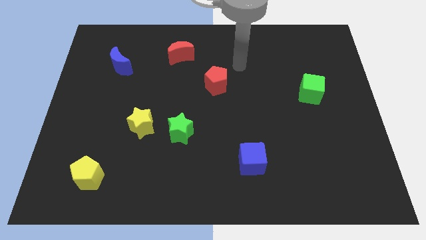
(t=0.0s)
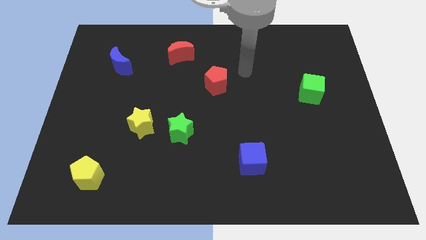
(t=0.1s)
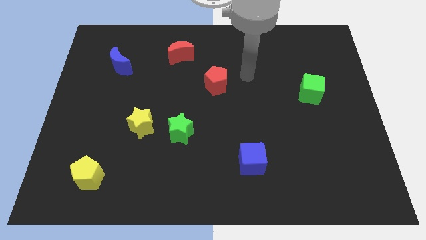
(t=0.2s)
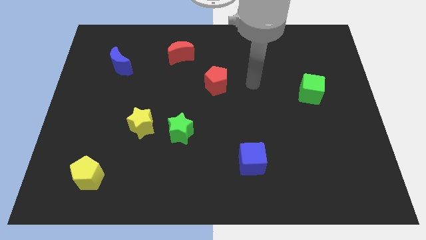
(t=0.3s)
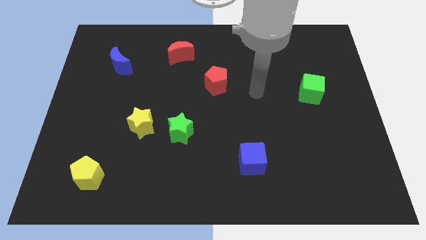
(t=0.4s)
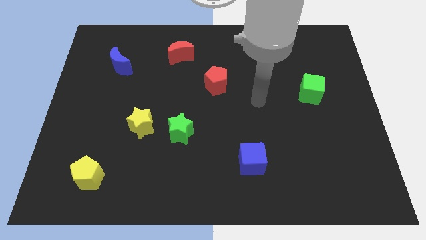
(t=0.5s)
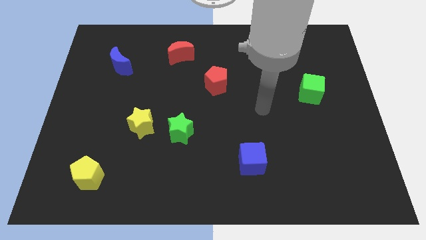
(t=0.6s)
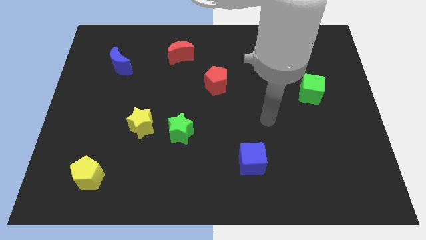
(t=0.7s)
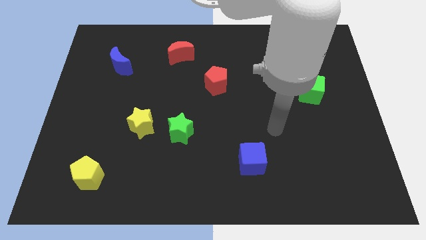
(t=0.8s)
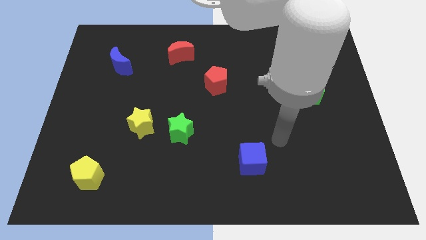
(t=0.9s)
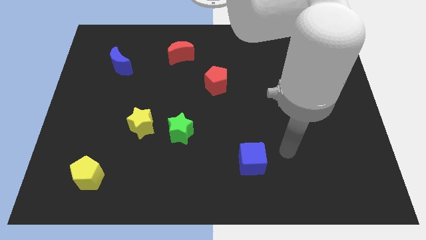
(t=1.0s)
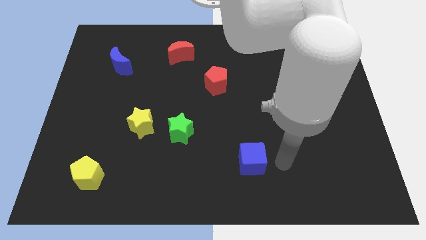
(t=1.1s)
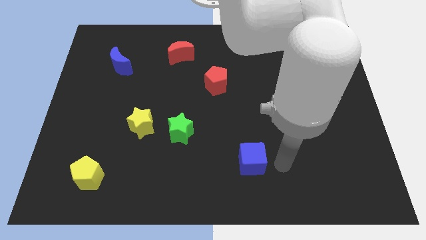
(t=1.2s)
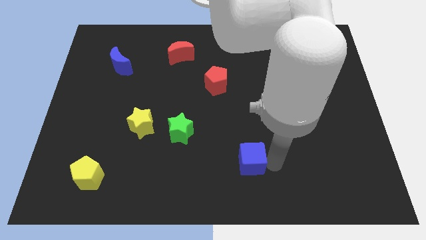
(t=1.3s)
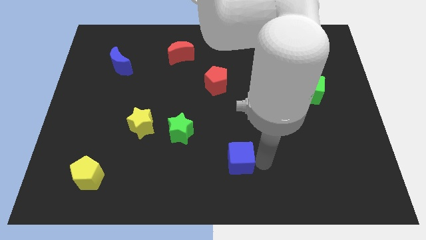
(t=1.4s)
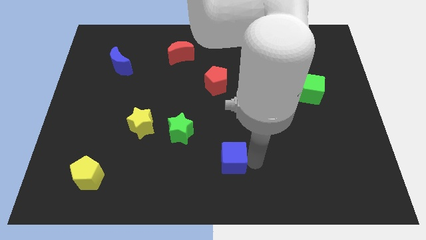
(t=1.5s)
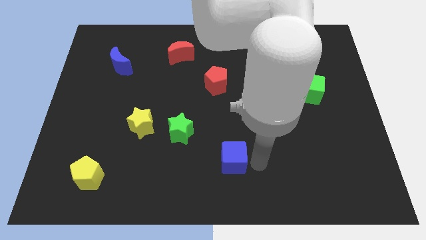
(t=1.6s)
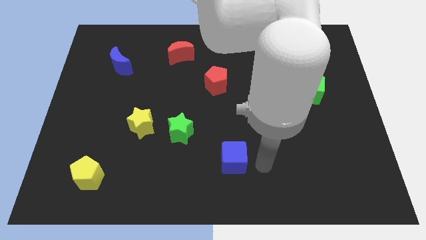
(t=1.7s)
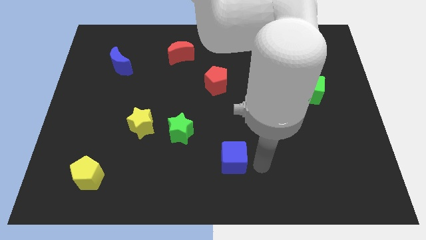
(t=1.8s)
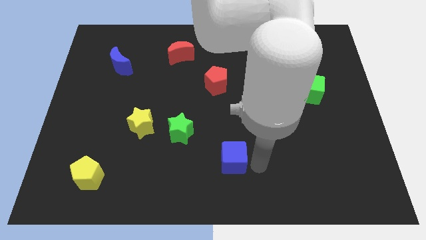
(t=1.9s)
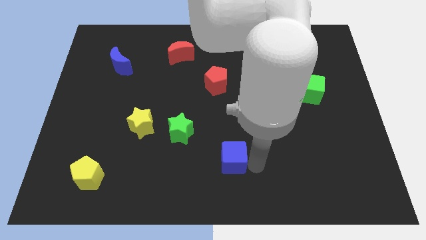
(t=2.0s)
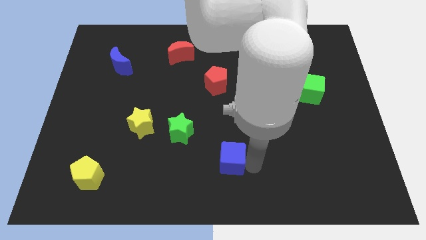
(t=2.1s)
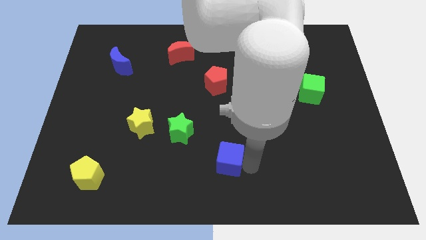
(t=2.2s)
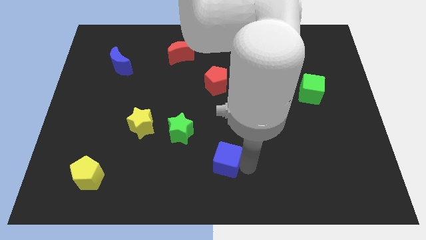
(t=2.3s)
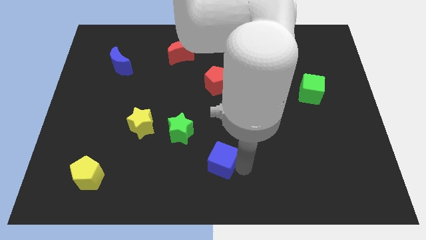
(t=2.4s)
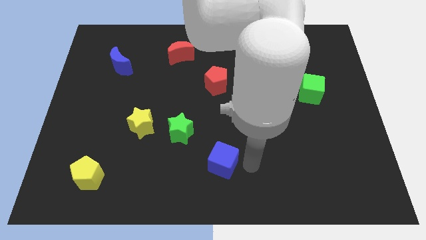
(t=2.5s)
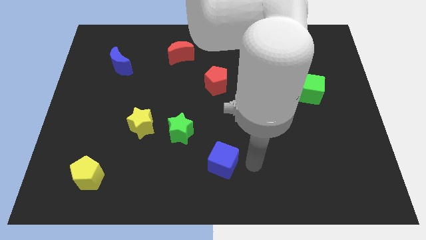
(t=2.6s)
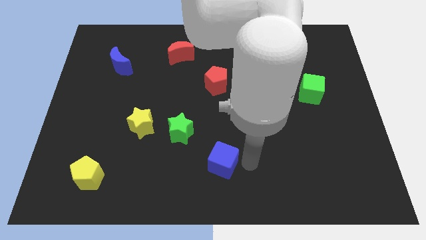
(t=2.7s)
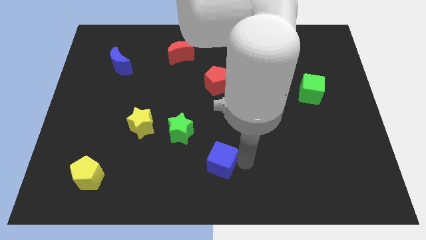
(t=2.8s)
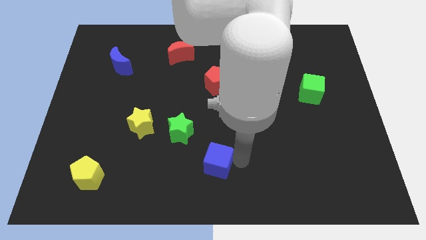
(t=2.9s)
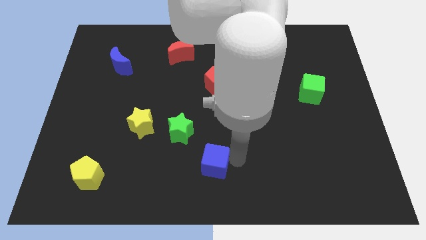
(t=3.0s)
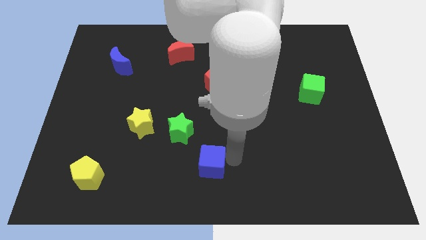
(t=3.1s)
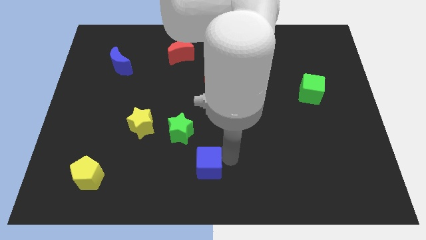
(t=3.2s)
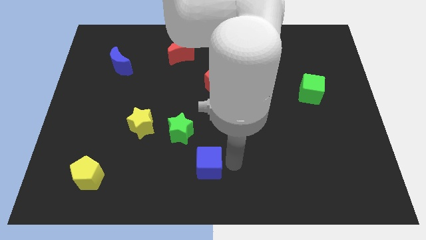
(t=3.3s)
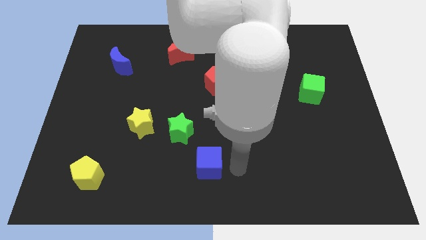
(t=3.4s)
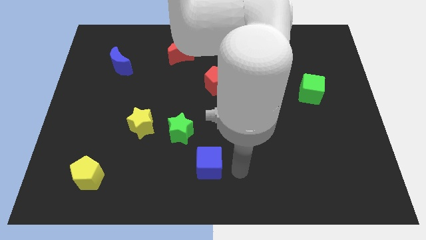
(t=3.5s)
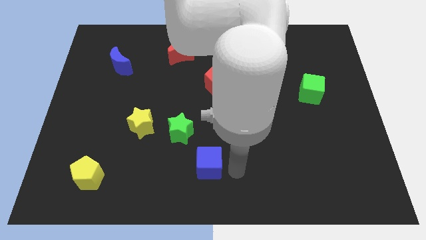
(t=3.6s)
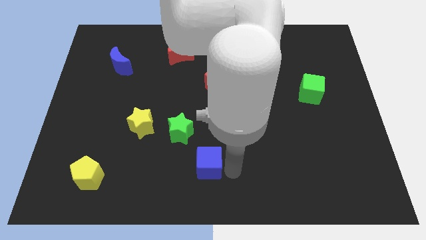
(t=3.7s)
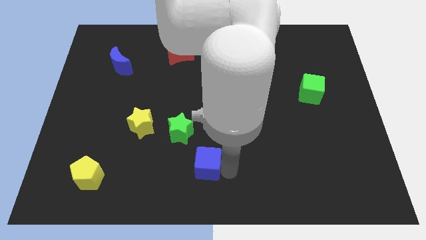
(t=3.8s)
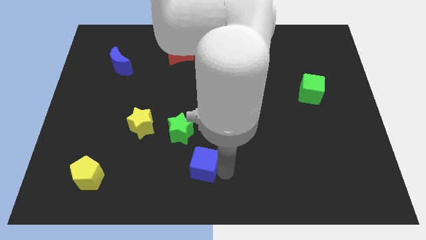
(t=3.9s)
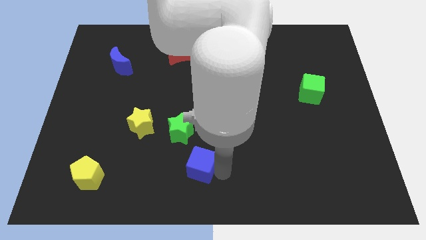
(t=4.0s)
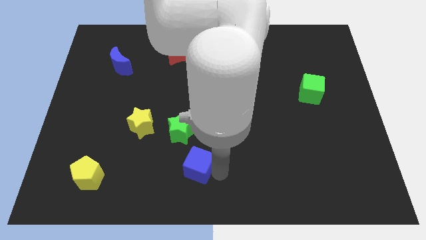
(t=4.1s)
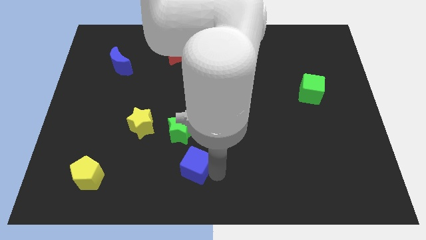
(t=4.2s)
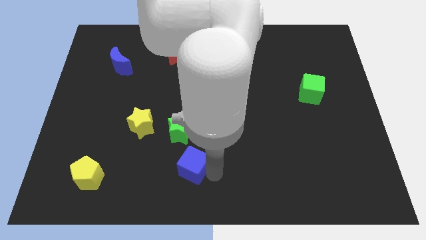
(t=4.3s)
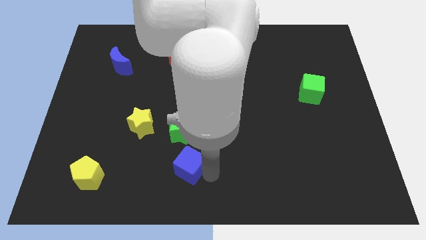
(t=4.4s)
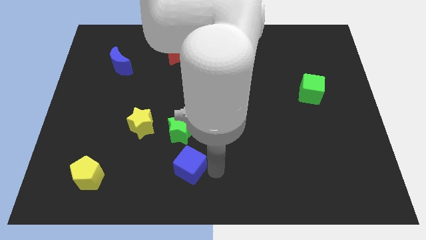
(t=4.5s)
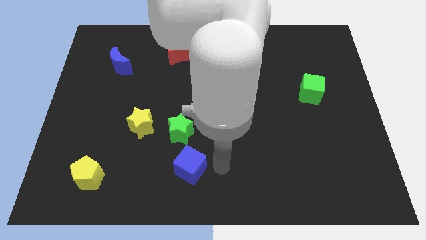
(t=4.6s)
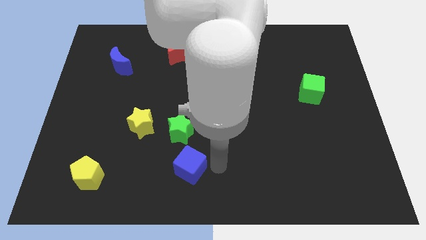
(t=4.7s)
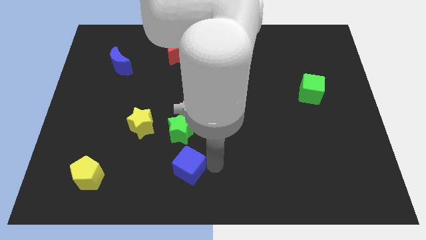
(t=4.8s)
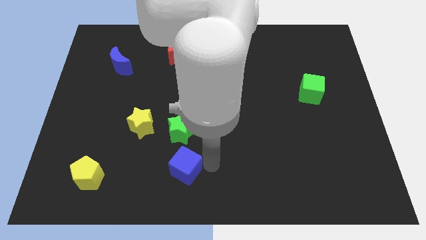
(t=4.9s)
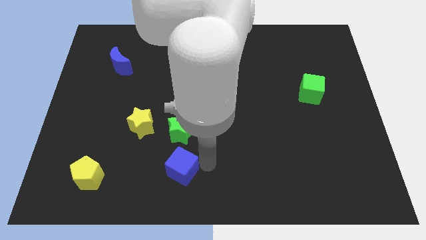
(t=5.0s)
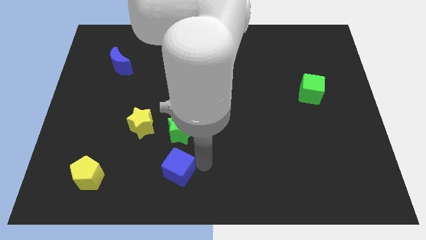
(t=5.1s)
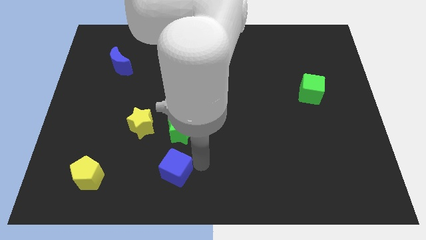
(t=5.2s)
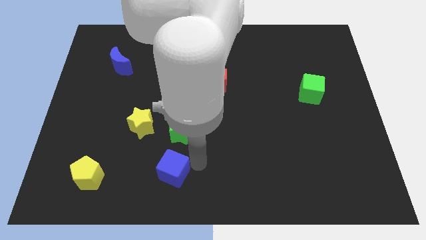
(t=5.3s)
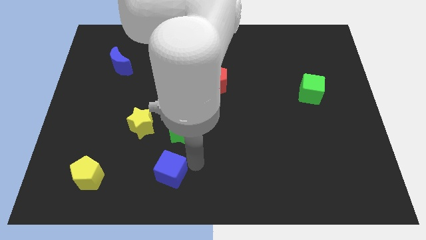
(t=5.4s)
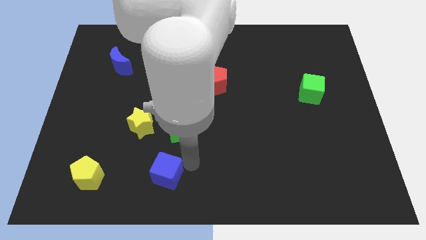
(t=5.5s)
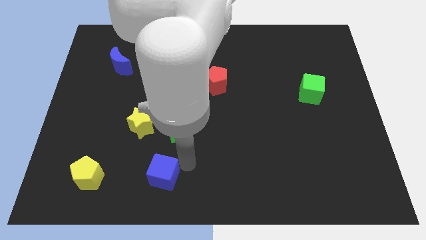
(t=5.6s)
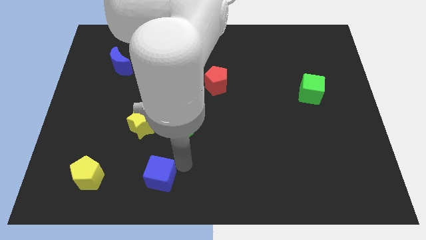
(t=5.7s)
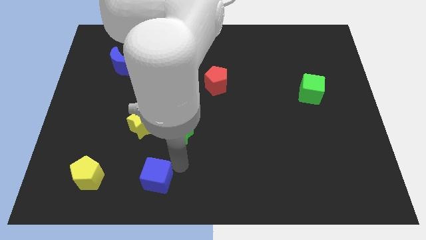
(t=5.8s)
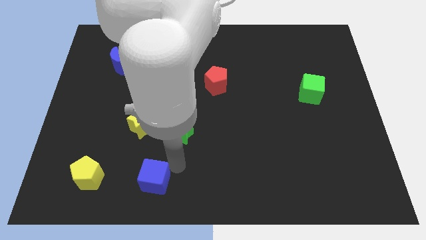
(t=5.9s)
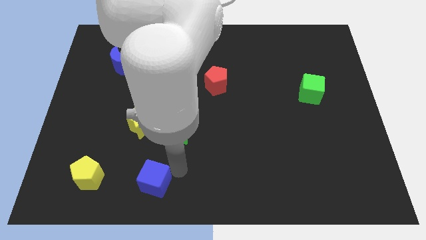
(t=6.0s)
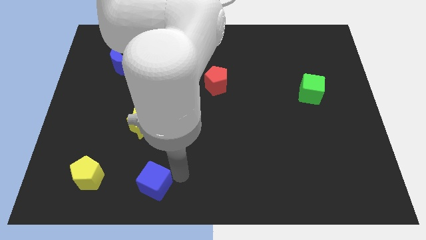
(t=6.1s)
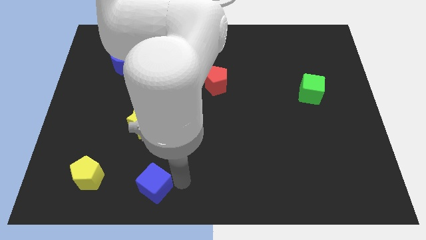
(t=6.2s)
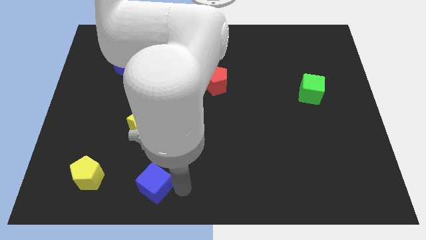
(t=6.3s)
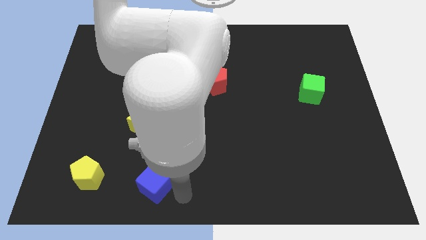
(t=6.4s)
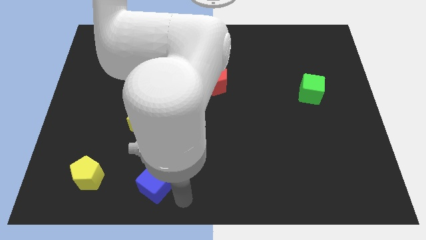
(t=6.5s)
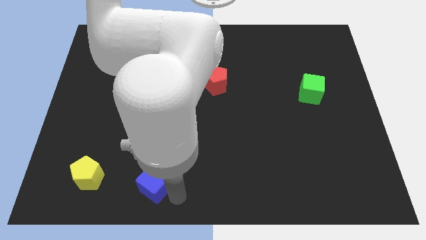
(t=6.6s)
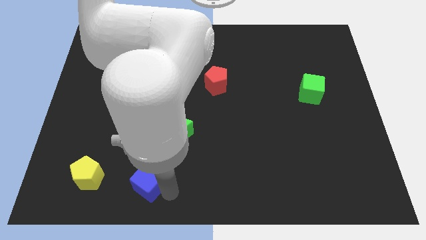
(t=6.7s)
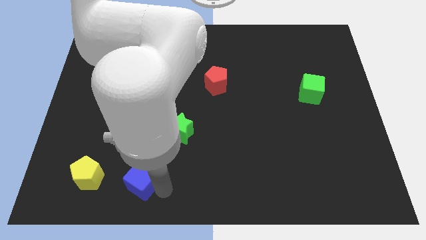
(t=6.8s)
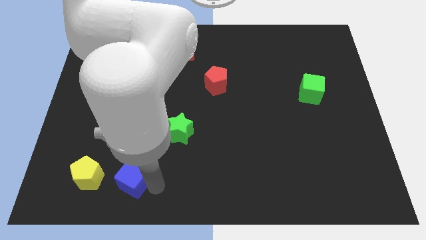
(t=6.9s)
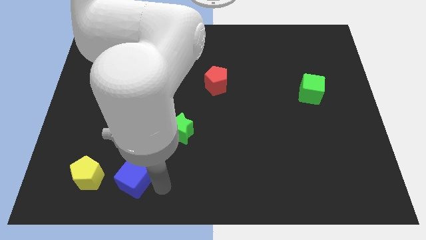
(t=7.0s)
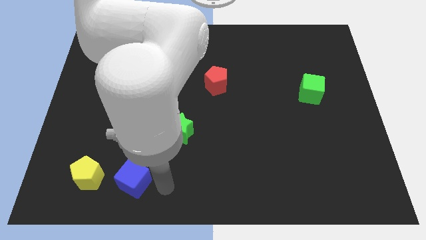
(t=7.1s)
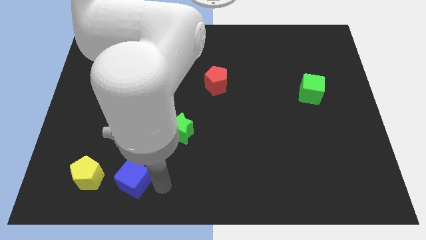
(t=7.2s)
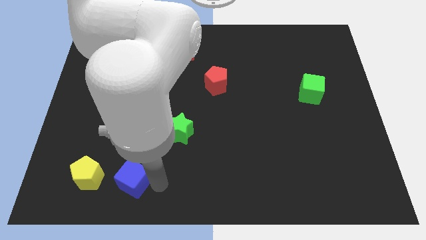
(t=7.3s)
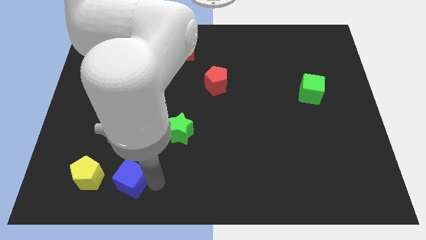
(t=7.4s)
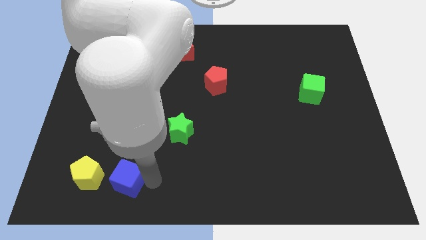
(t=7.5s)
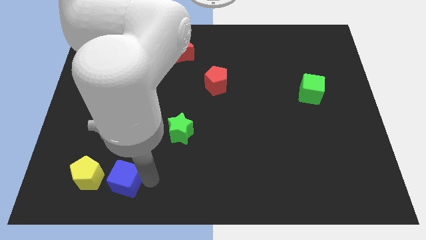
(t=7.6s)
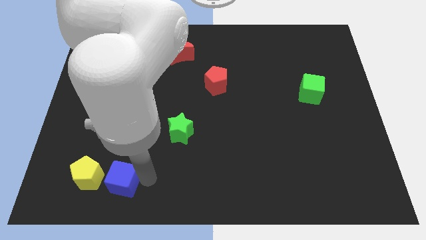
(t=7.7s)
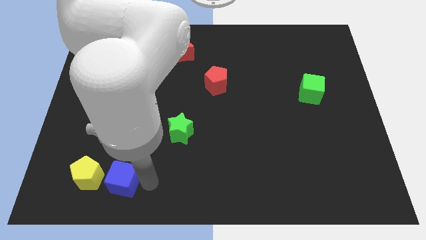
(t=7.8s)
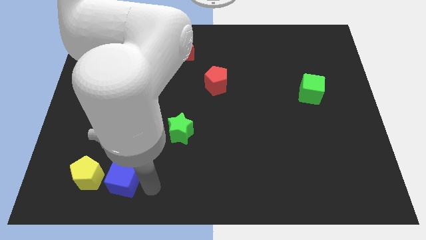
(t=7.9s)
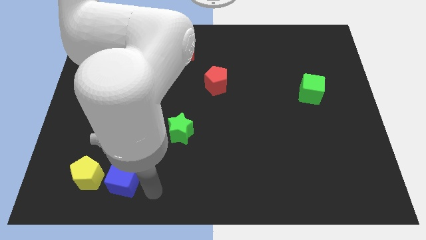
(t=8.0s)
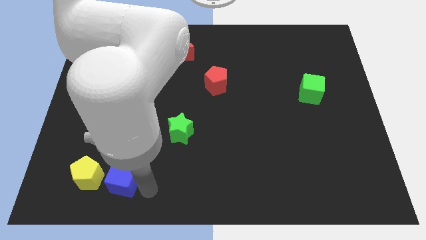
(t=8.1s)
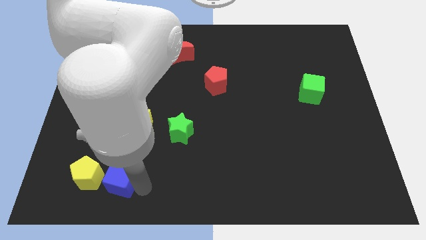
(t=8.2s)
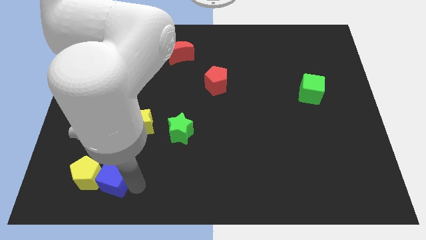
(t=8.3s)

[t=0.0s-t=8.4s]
move the blue cube to the yellow pentagon

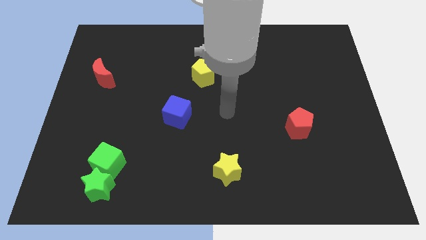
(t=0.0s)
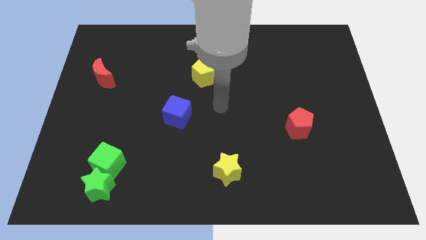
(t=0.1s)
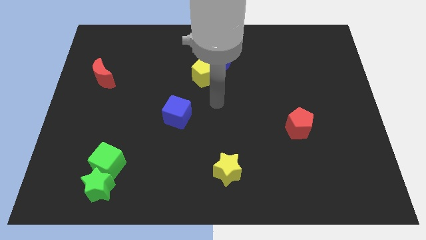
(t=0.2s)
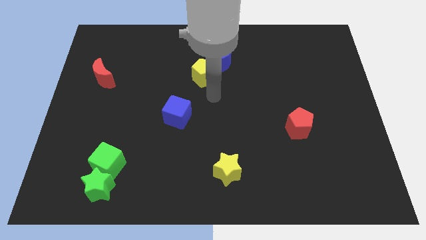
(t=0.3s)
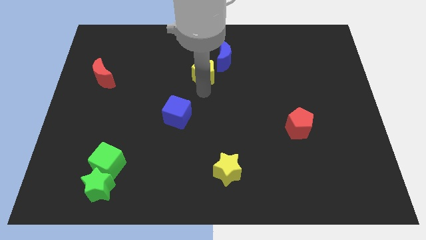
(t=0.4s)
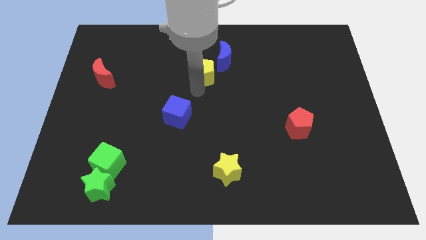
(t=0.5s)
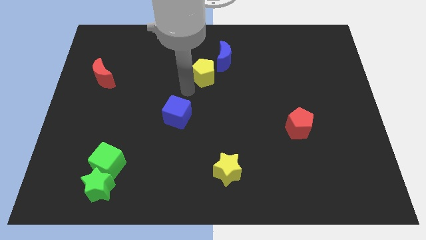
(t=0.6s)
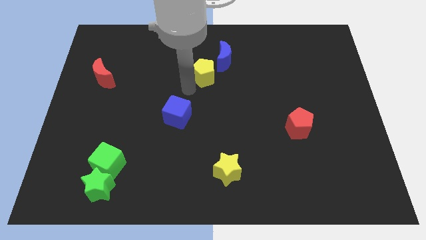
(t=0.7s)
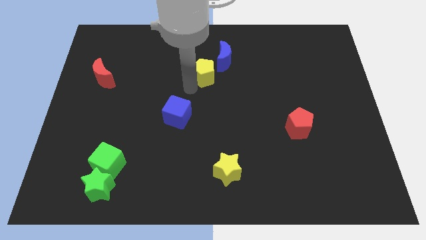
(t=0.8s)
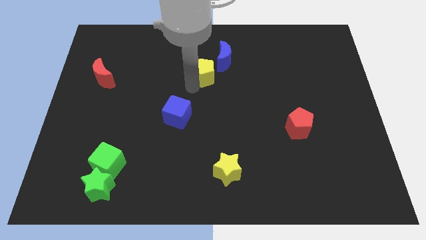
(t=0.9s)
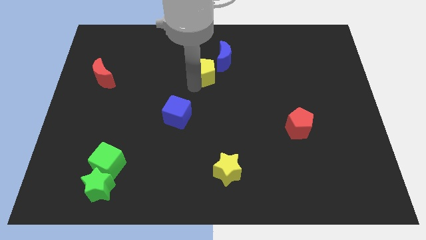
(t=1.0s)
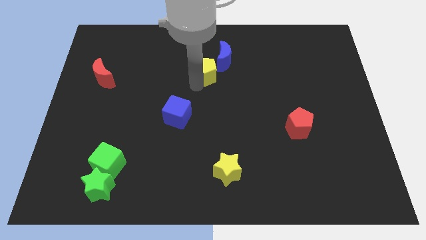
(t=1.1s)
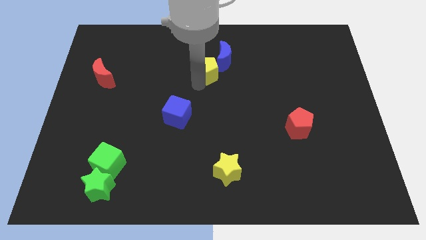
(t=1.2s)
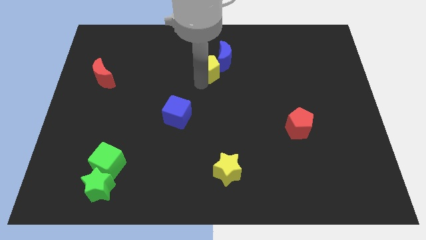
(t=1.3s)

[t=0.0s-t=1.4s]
put the yellow pentagon towards the blue moon
